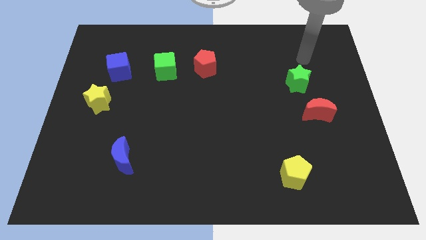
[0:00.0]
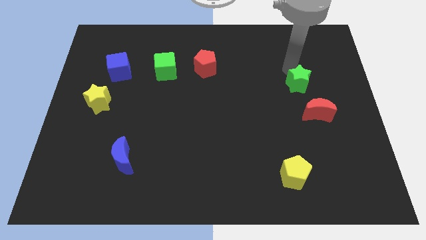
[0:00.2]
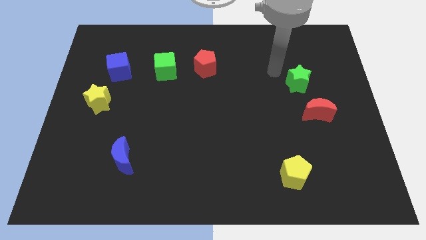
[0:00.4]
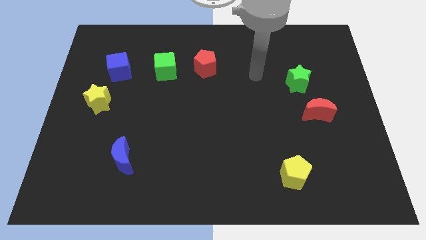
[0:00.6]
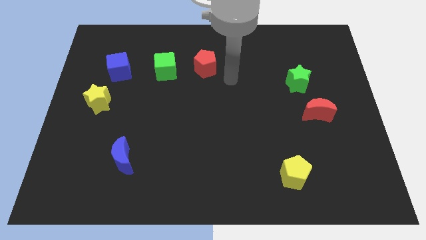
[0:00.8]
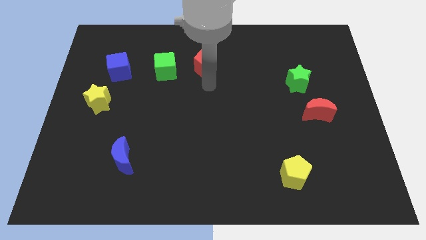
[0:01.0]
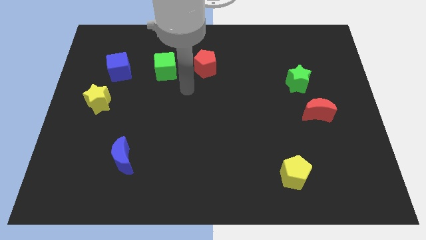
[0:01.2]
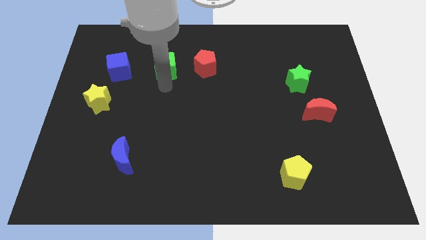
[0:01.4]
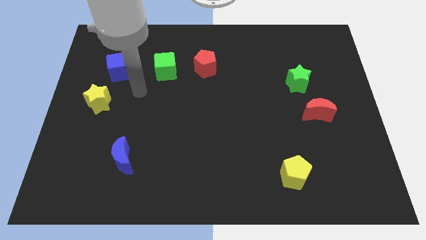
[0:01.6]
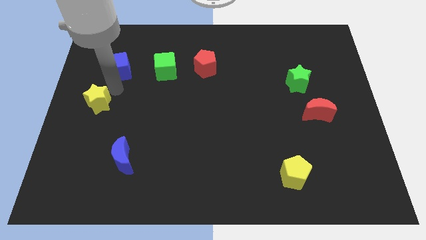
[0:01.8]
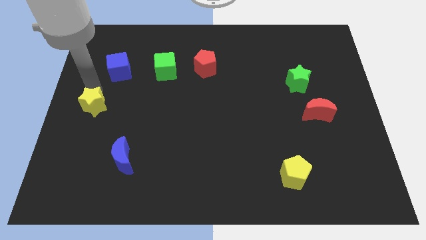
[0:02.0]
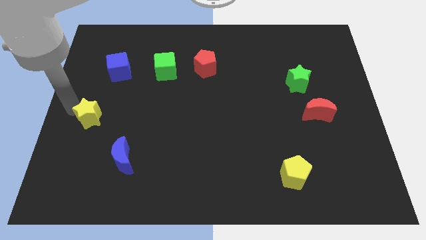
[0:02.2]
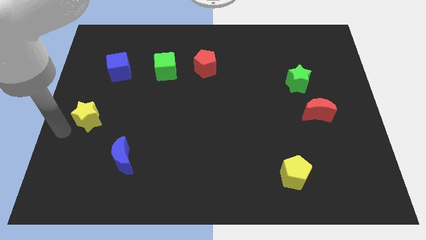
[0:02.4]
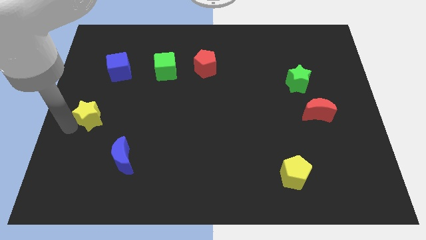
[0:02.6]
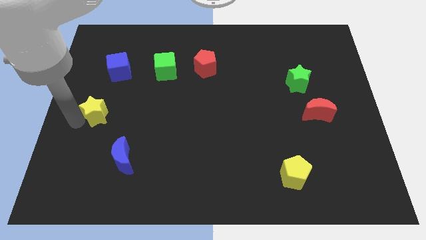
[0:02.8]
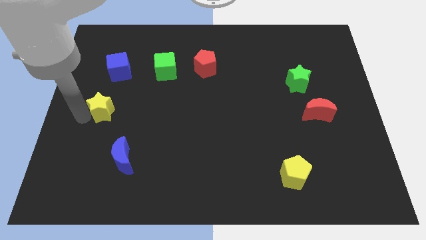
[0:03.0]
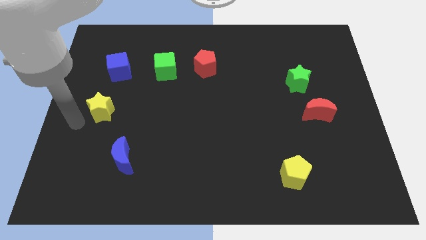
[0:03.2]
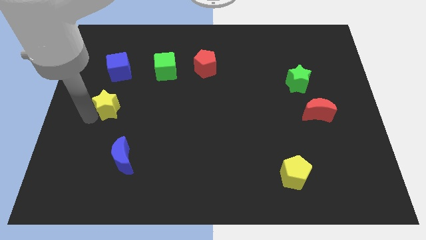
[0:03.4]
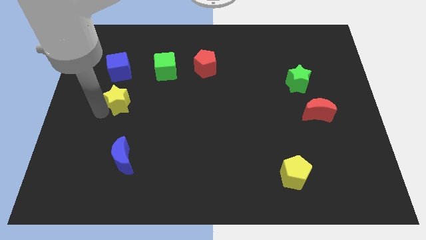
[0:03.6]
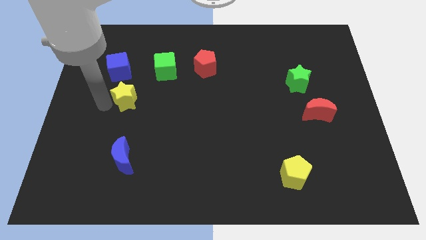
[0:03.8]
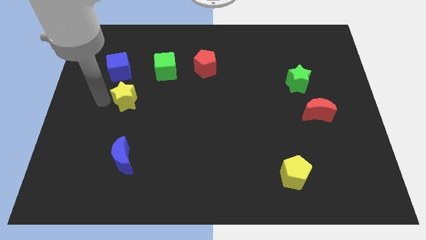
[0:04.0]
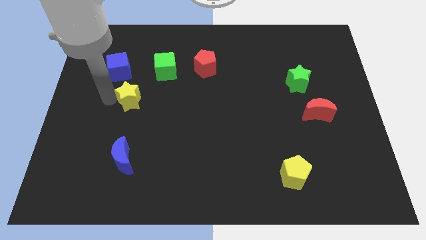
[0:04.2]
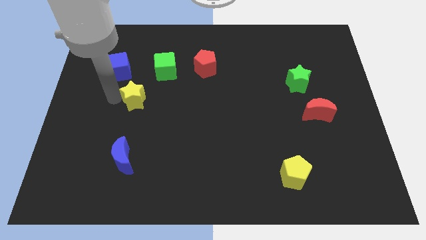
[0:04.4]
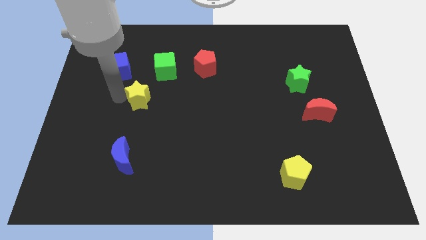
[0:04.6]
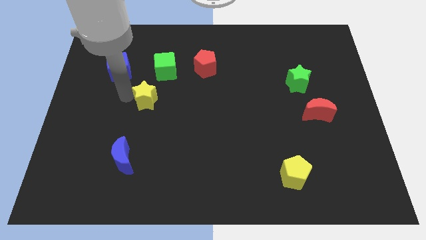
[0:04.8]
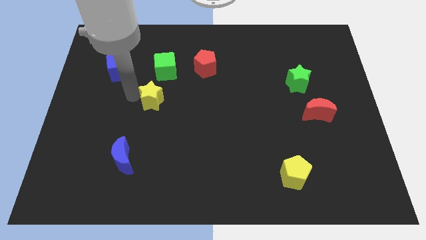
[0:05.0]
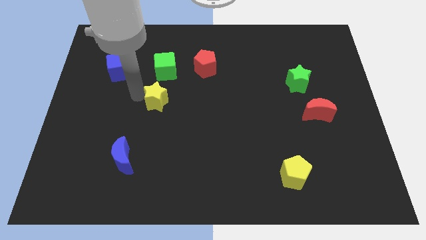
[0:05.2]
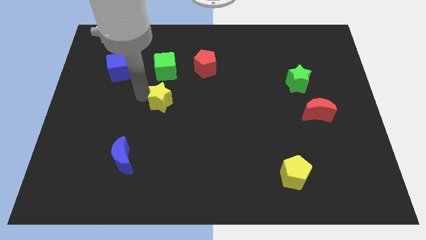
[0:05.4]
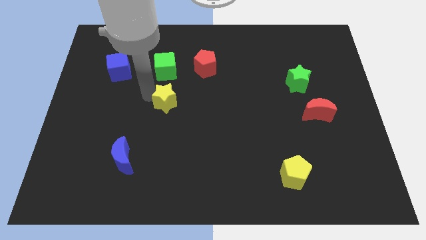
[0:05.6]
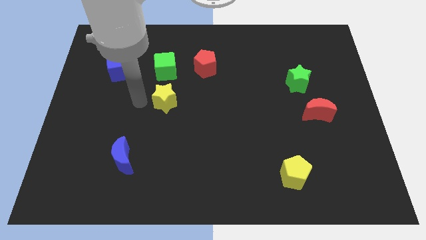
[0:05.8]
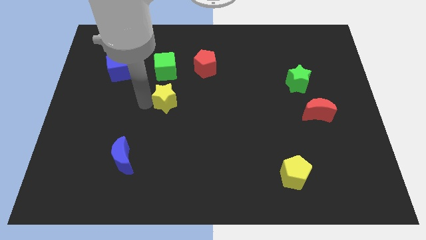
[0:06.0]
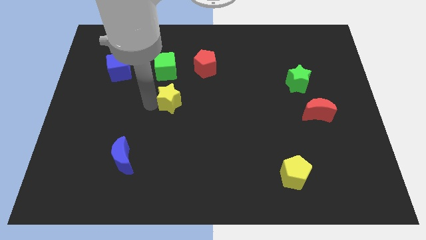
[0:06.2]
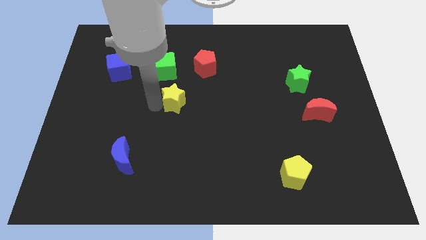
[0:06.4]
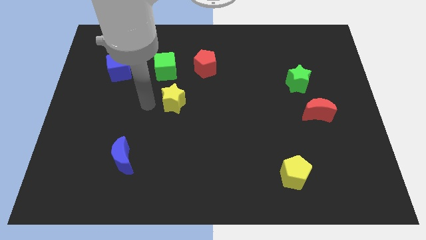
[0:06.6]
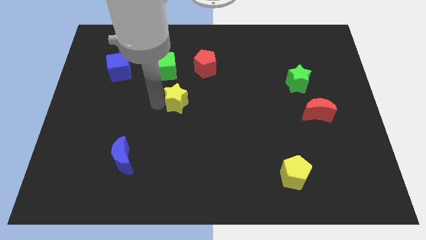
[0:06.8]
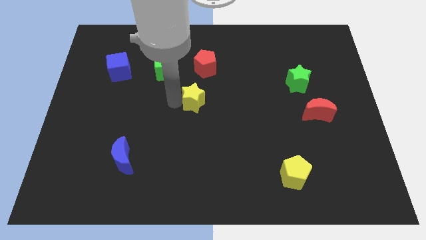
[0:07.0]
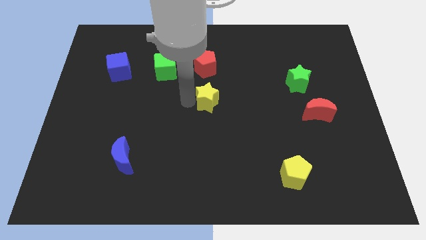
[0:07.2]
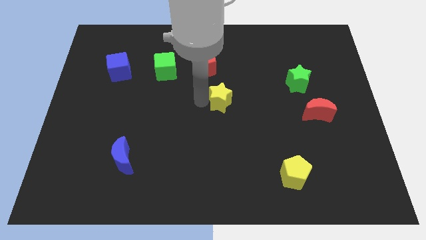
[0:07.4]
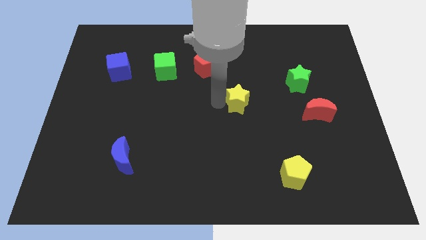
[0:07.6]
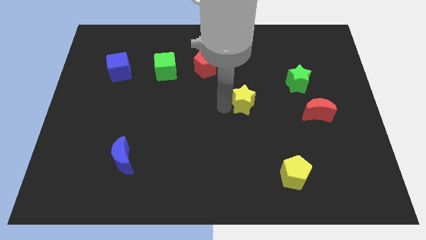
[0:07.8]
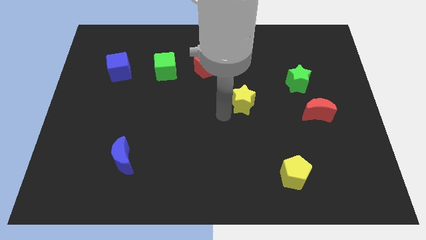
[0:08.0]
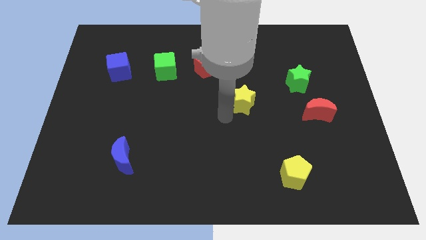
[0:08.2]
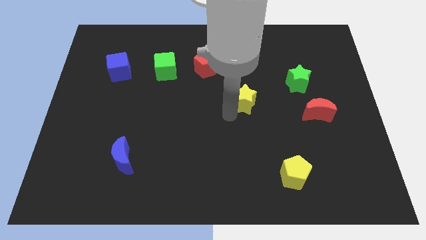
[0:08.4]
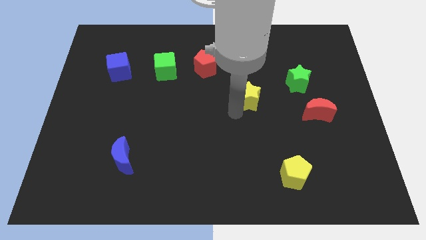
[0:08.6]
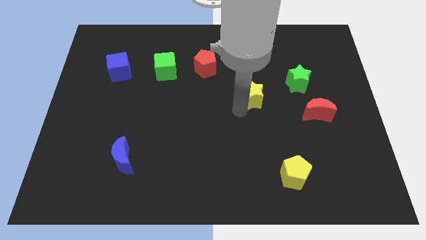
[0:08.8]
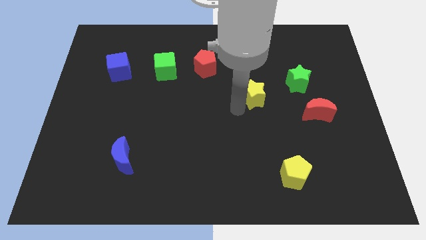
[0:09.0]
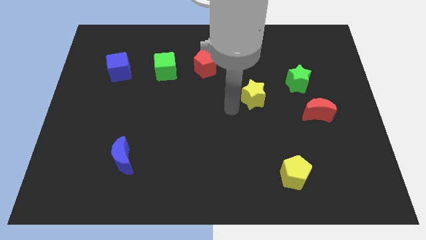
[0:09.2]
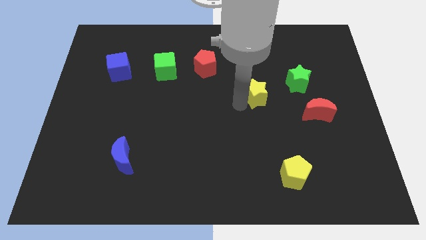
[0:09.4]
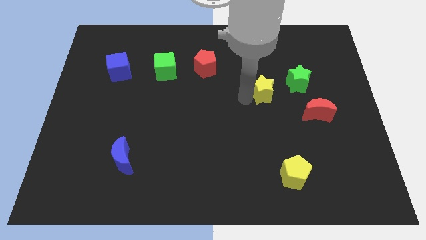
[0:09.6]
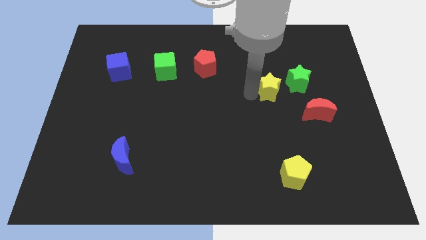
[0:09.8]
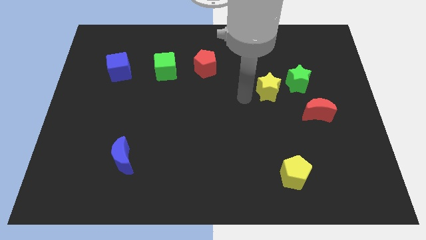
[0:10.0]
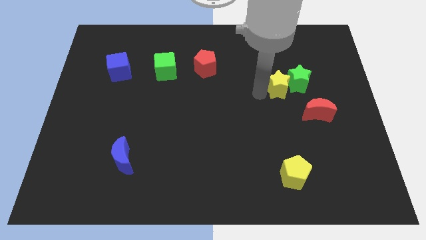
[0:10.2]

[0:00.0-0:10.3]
push the yellow star next to the green star

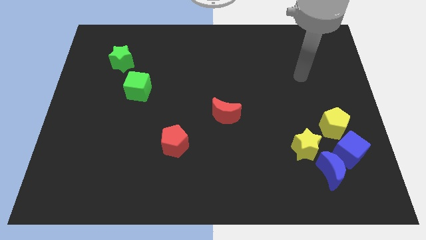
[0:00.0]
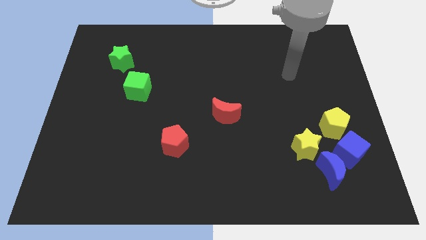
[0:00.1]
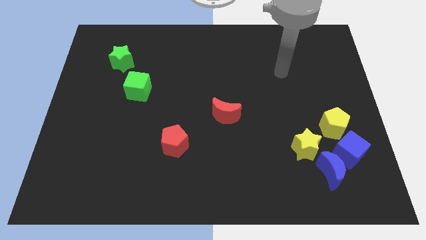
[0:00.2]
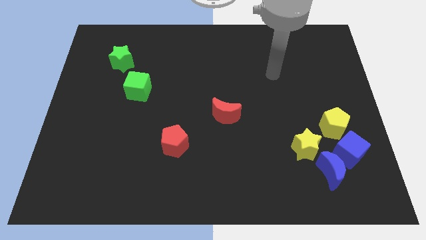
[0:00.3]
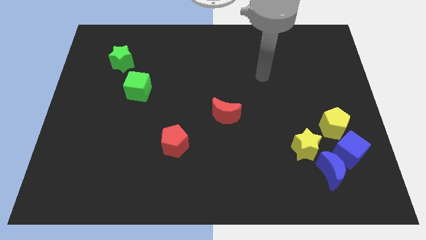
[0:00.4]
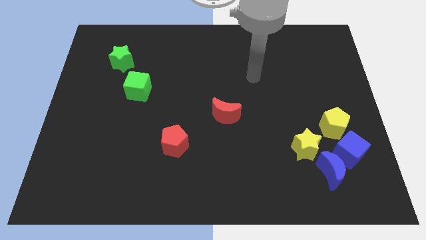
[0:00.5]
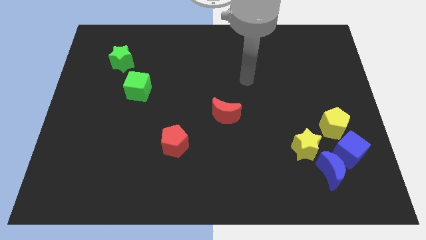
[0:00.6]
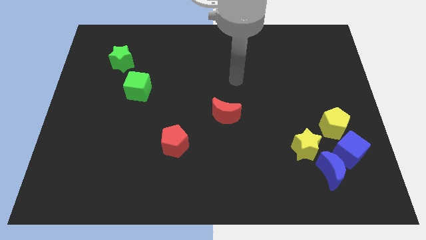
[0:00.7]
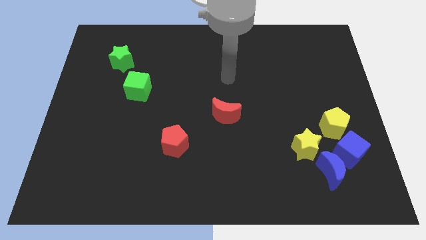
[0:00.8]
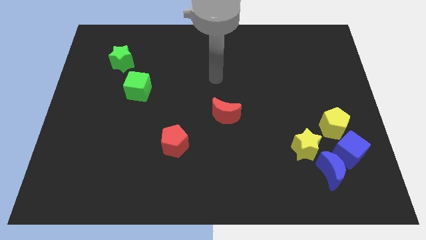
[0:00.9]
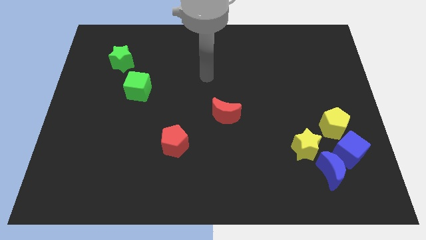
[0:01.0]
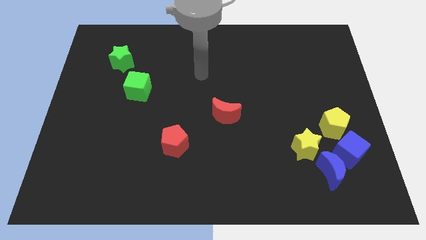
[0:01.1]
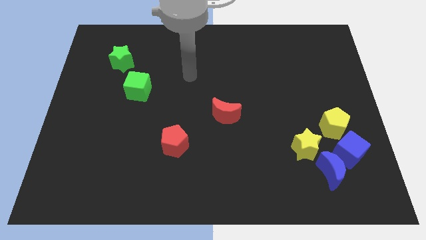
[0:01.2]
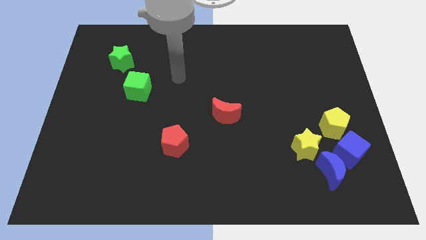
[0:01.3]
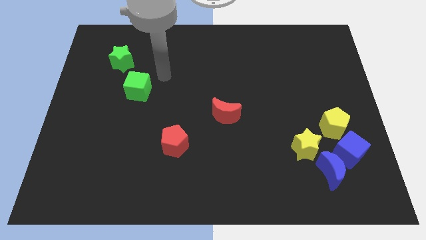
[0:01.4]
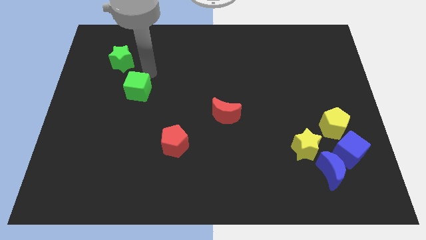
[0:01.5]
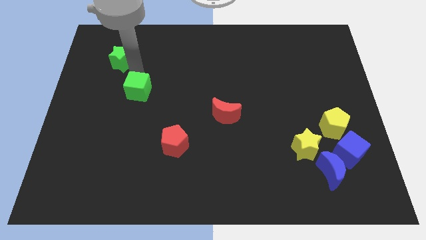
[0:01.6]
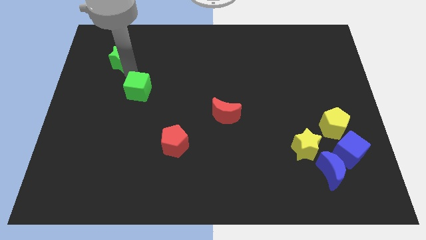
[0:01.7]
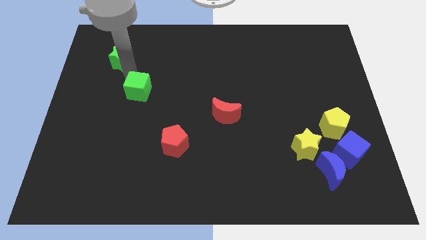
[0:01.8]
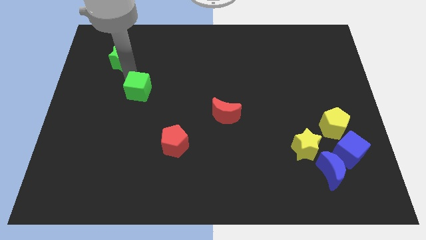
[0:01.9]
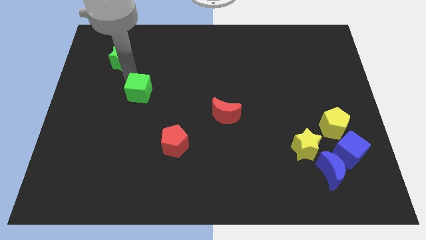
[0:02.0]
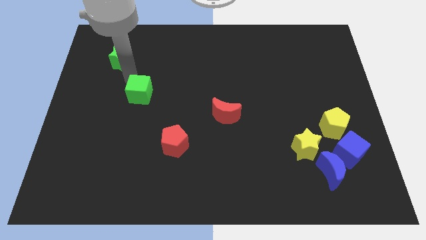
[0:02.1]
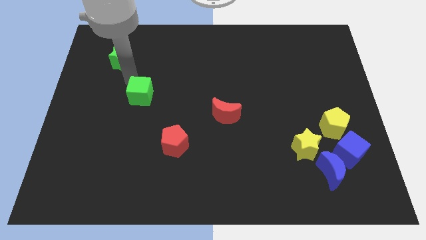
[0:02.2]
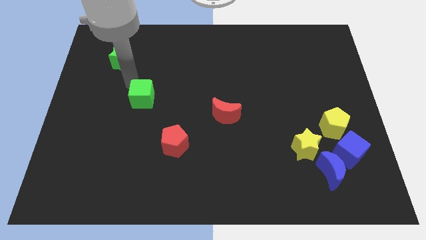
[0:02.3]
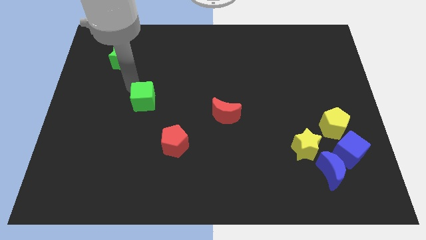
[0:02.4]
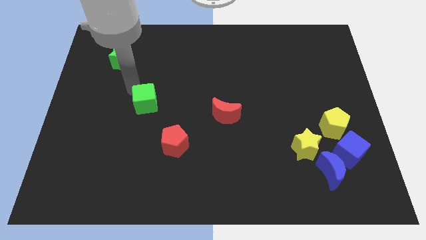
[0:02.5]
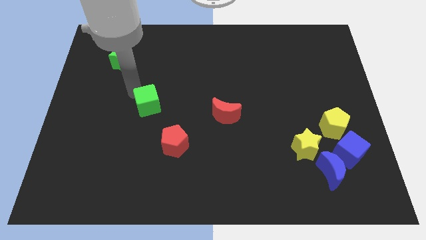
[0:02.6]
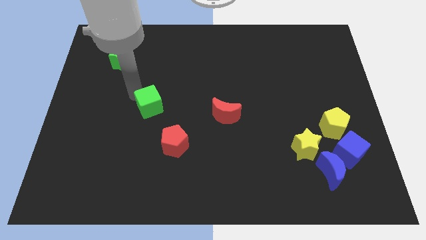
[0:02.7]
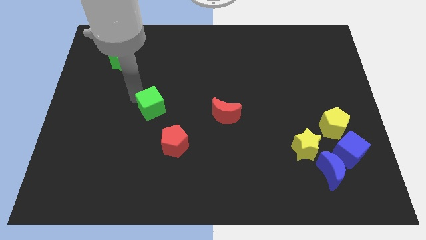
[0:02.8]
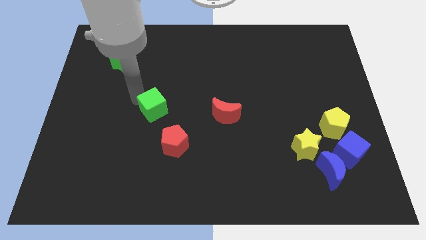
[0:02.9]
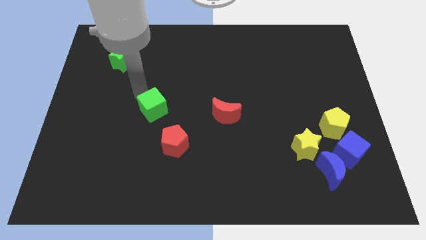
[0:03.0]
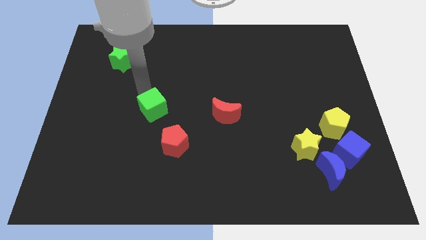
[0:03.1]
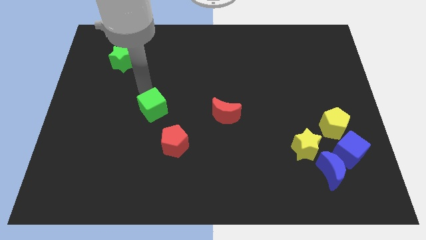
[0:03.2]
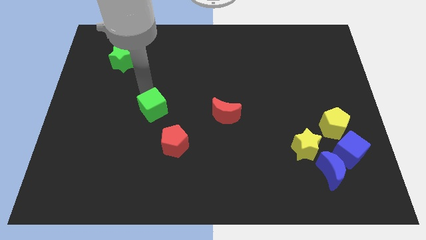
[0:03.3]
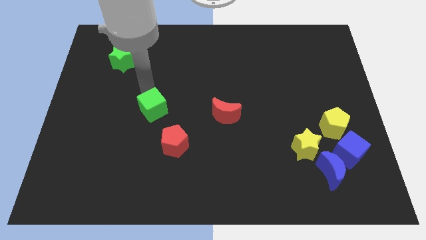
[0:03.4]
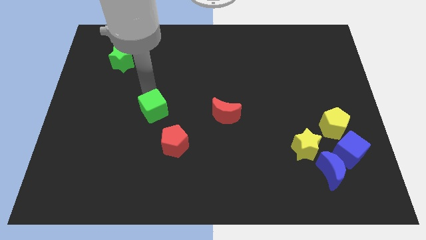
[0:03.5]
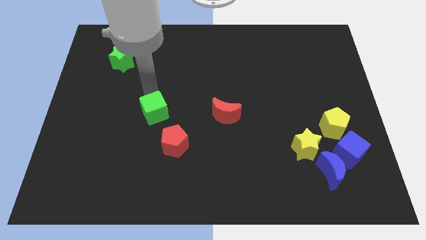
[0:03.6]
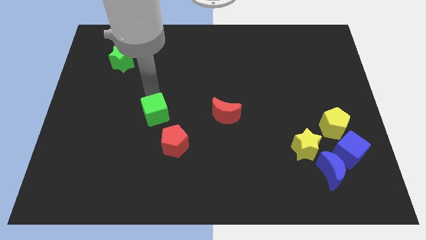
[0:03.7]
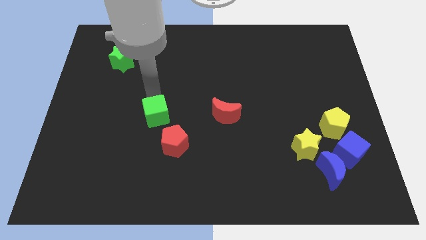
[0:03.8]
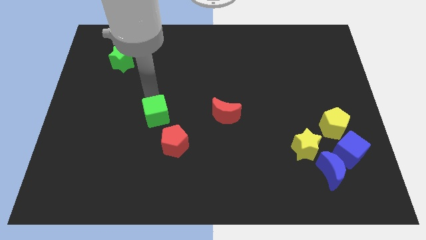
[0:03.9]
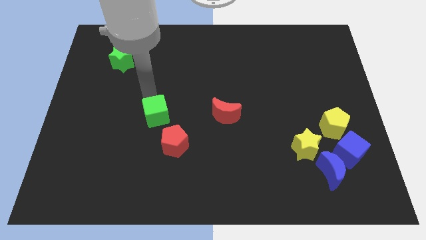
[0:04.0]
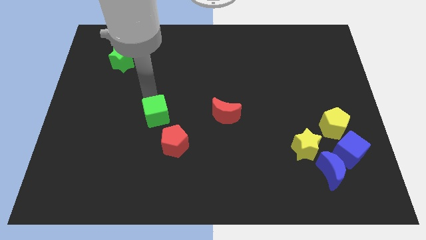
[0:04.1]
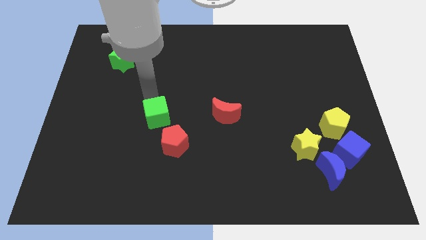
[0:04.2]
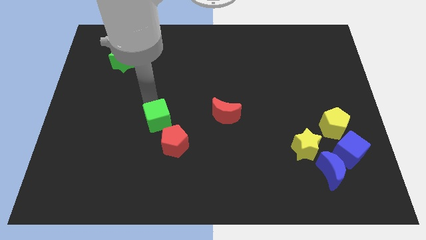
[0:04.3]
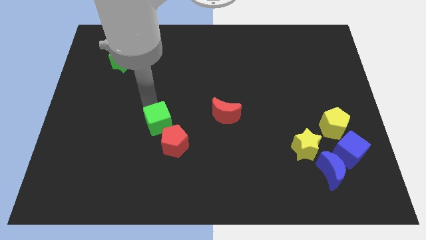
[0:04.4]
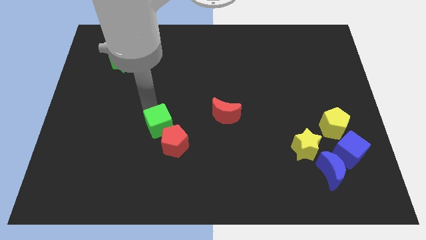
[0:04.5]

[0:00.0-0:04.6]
slide the green cube towards the red pentagon
